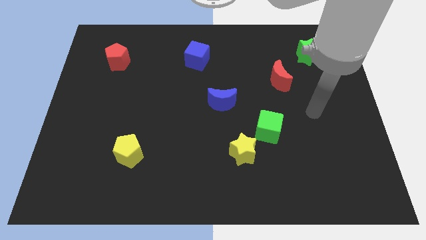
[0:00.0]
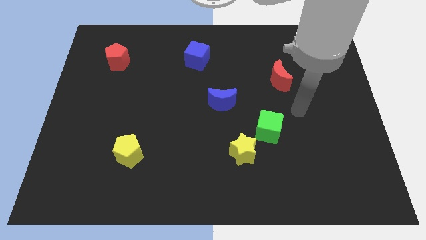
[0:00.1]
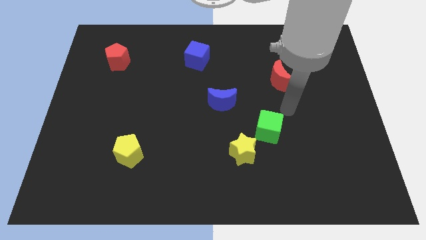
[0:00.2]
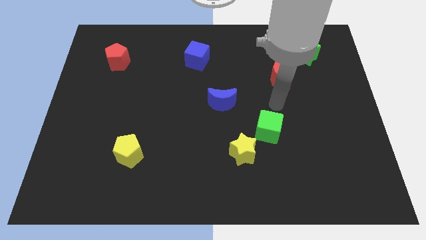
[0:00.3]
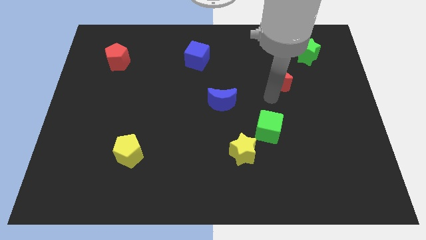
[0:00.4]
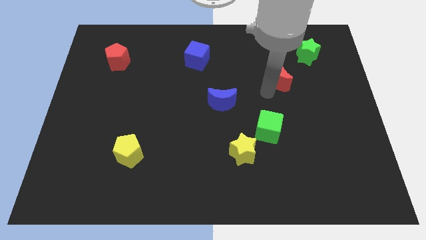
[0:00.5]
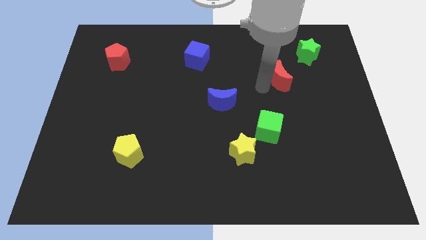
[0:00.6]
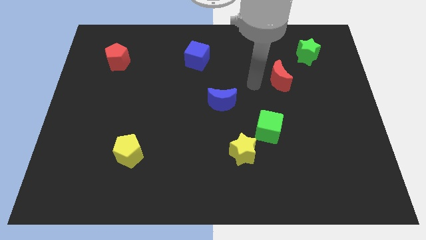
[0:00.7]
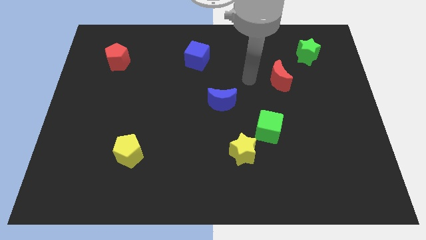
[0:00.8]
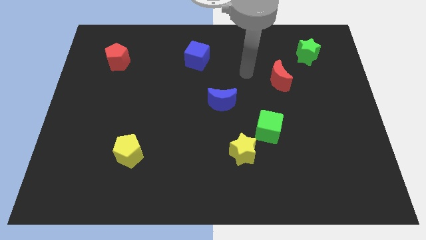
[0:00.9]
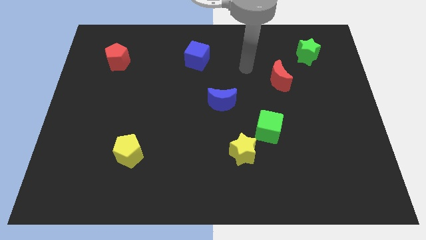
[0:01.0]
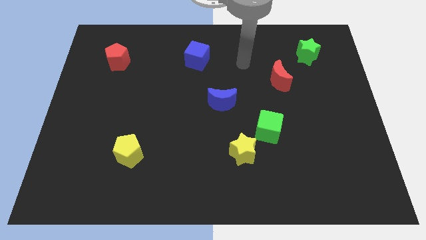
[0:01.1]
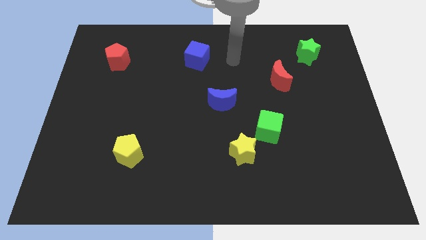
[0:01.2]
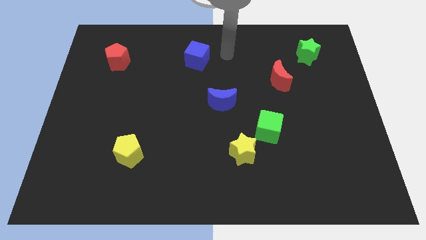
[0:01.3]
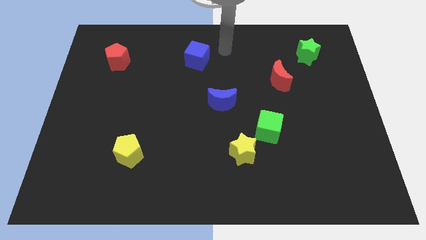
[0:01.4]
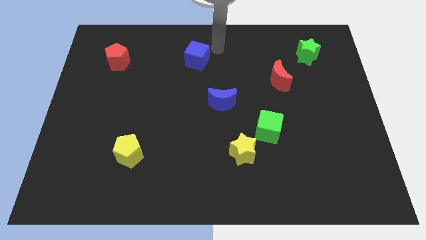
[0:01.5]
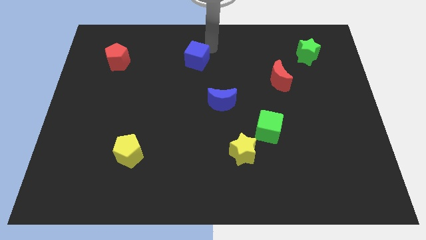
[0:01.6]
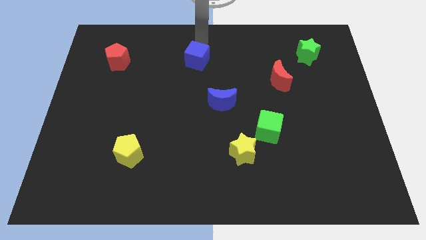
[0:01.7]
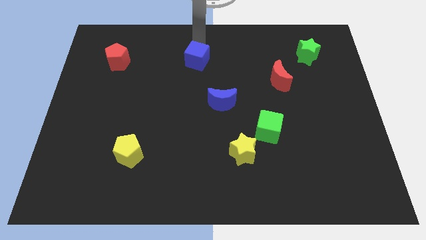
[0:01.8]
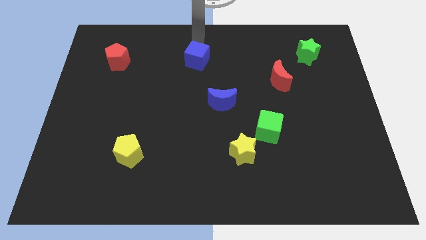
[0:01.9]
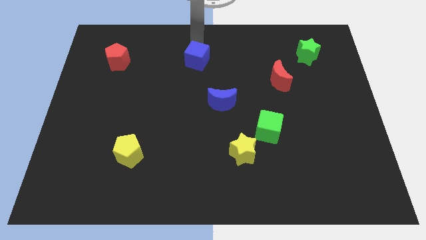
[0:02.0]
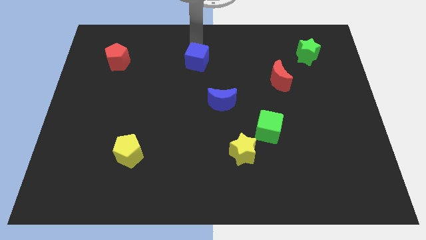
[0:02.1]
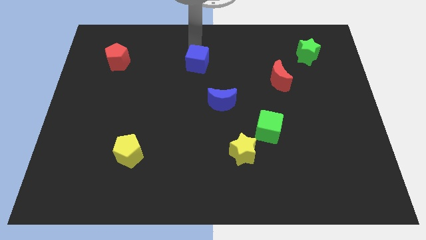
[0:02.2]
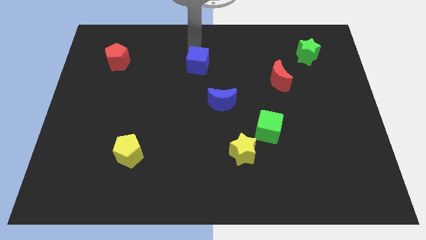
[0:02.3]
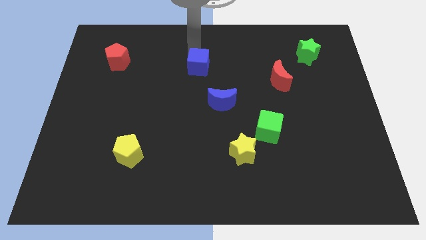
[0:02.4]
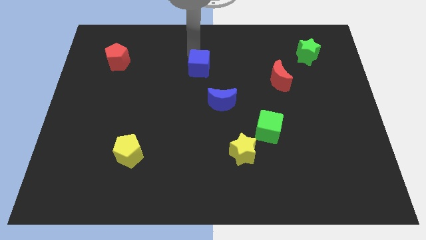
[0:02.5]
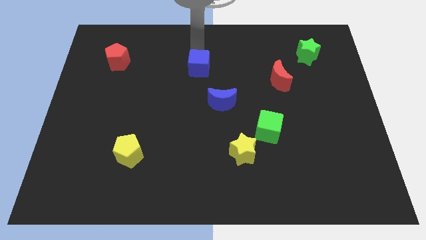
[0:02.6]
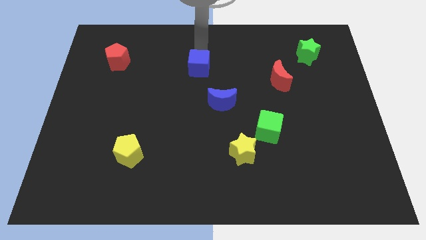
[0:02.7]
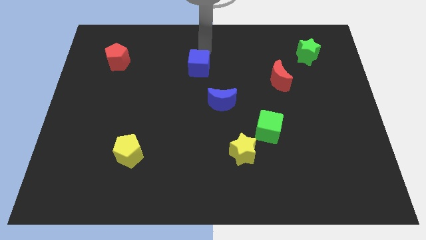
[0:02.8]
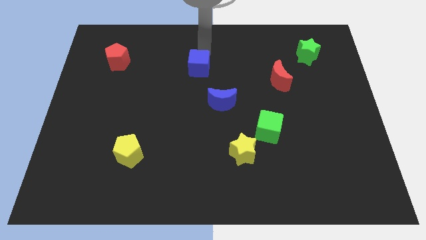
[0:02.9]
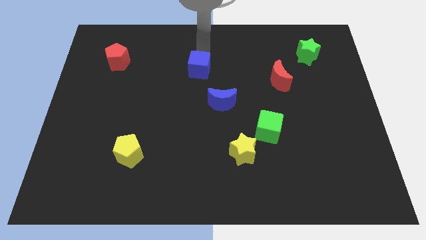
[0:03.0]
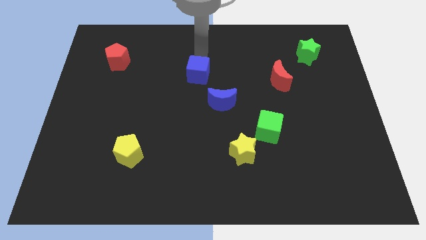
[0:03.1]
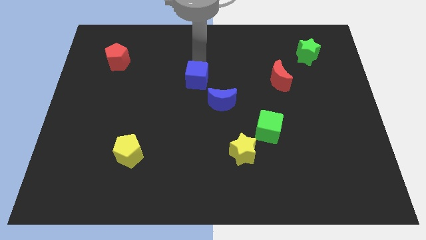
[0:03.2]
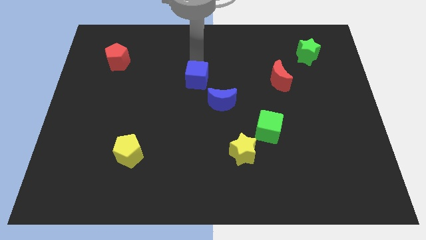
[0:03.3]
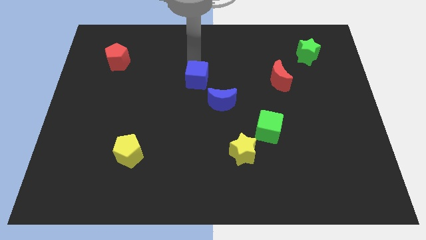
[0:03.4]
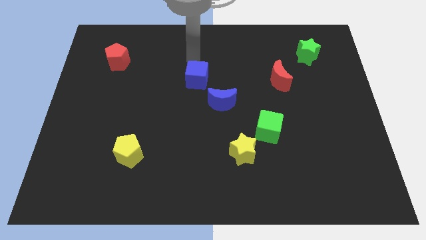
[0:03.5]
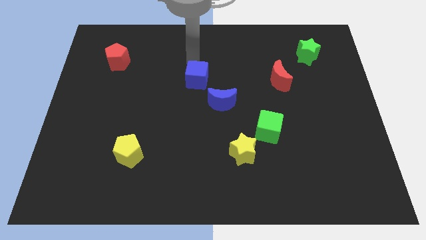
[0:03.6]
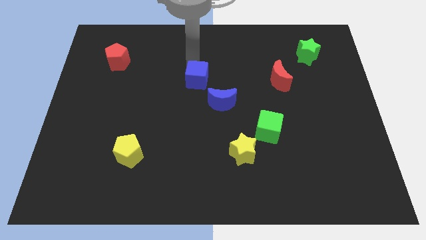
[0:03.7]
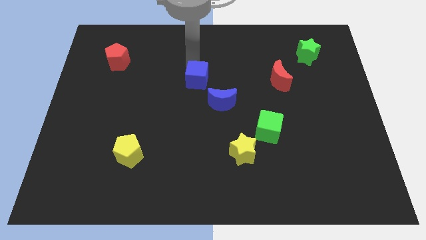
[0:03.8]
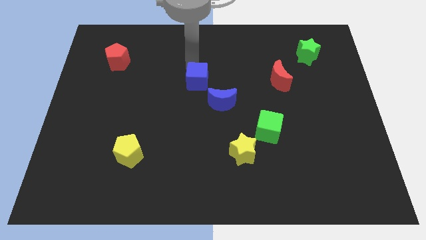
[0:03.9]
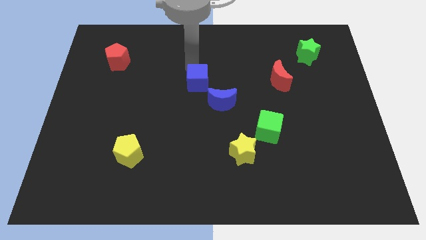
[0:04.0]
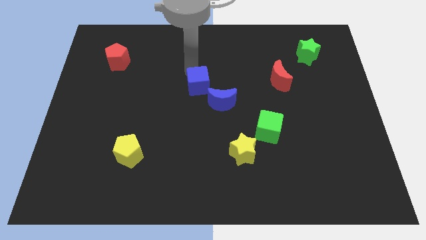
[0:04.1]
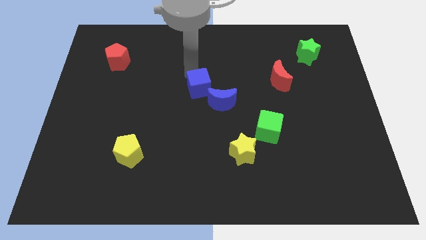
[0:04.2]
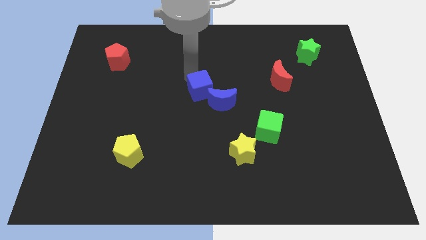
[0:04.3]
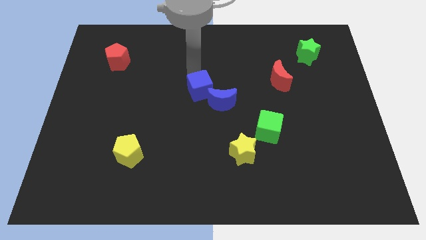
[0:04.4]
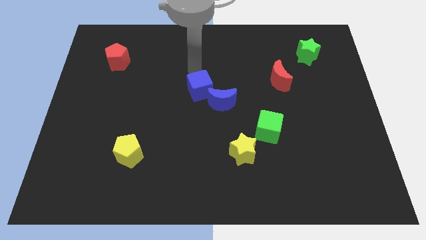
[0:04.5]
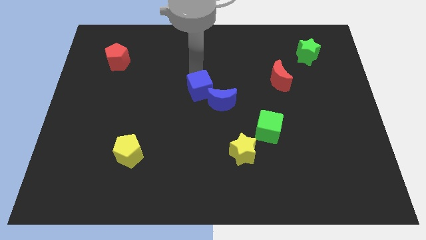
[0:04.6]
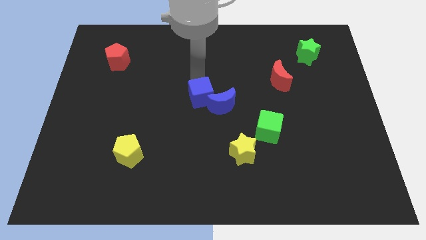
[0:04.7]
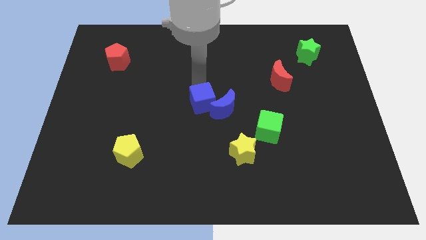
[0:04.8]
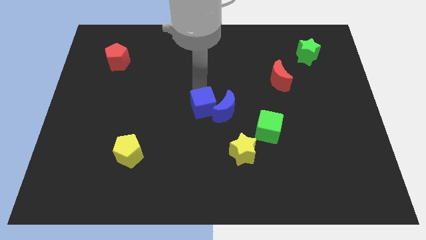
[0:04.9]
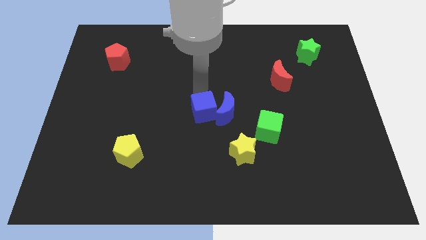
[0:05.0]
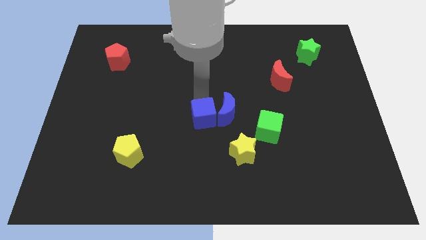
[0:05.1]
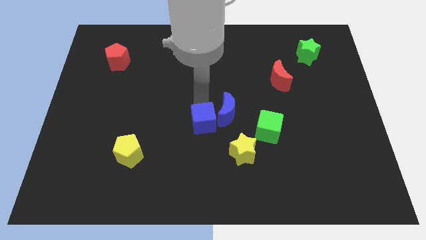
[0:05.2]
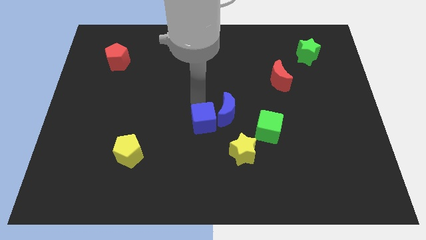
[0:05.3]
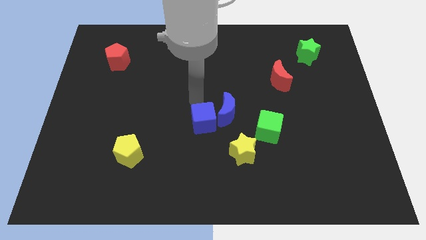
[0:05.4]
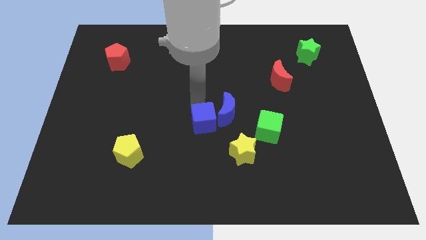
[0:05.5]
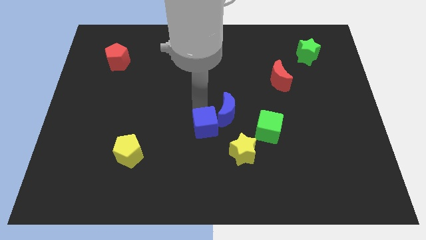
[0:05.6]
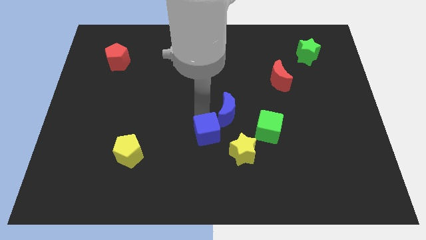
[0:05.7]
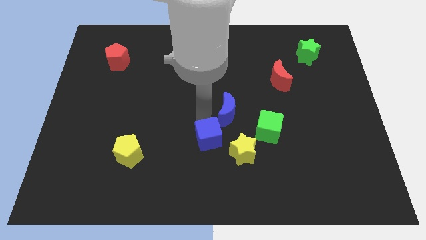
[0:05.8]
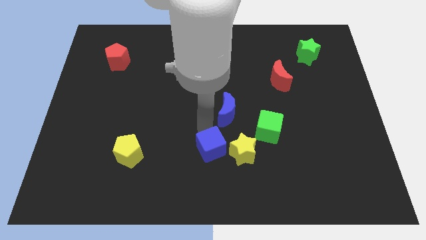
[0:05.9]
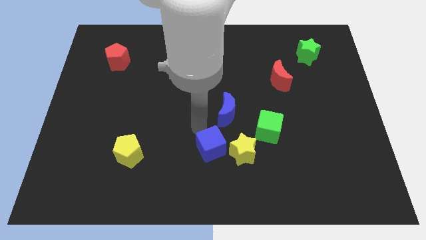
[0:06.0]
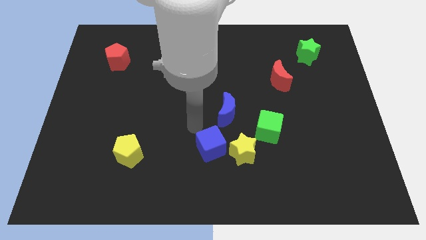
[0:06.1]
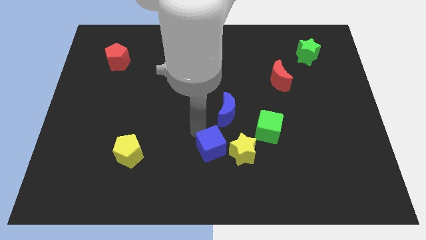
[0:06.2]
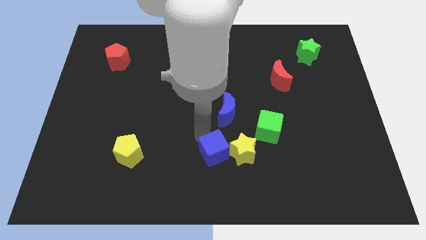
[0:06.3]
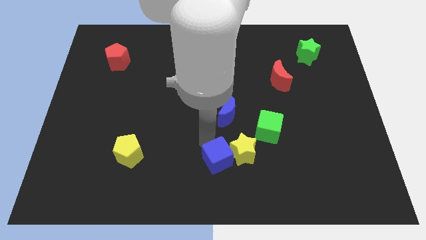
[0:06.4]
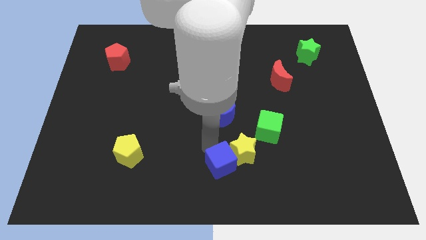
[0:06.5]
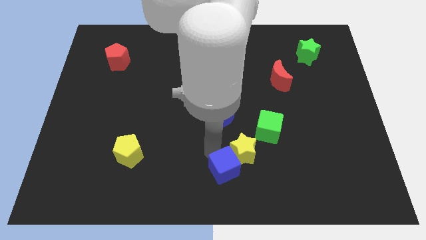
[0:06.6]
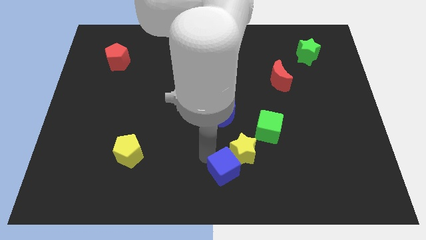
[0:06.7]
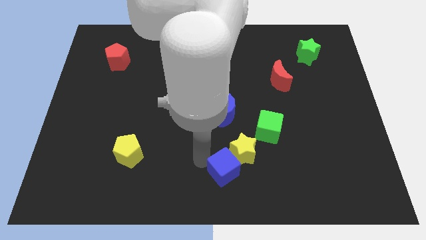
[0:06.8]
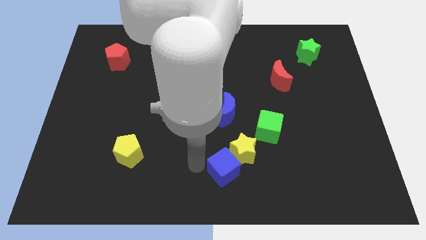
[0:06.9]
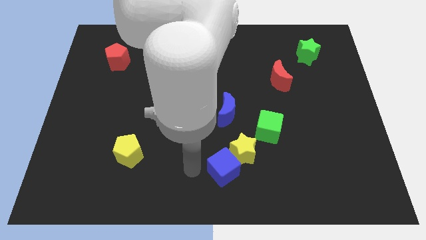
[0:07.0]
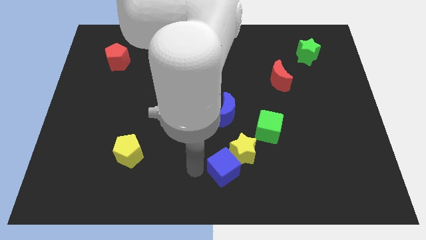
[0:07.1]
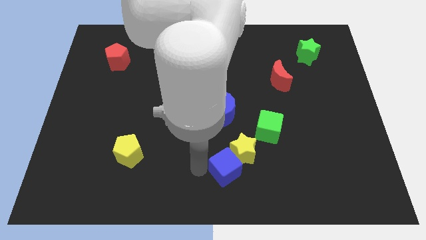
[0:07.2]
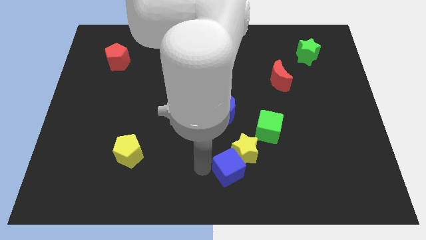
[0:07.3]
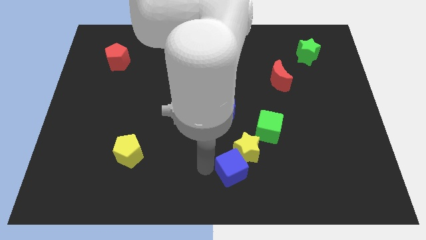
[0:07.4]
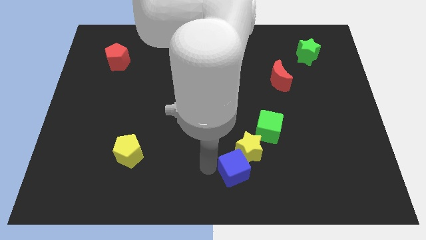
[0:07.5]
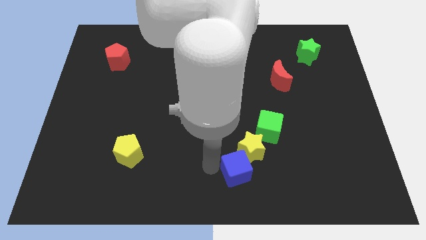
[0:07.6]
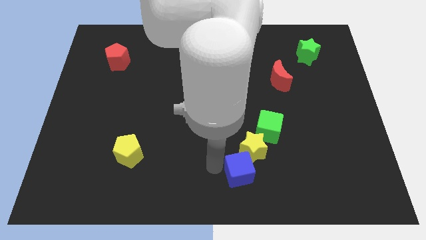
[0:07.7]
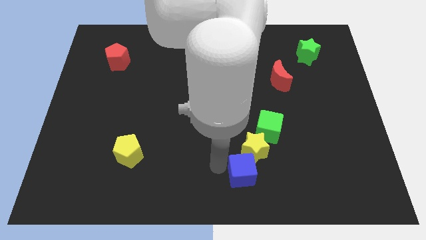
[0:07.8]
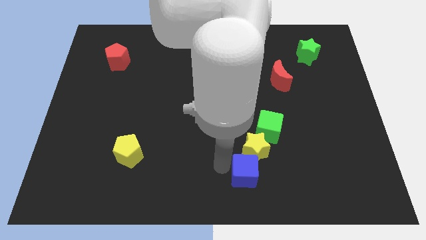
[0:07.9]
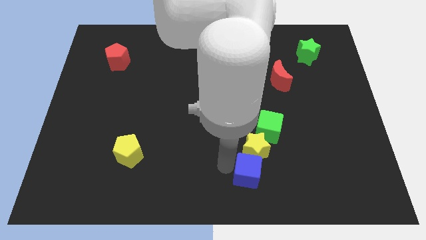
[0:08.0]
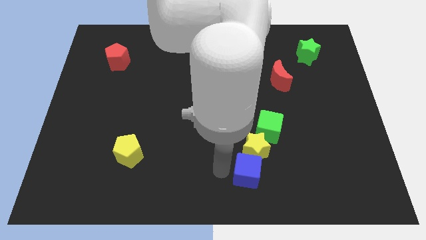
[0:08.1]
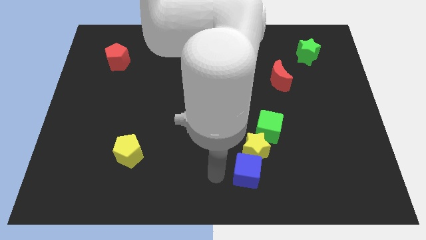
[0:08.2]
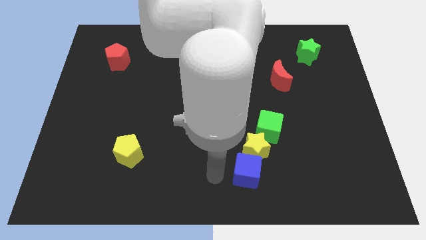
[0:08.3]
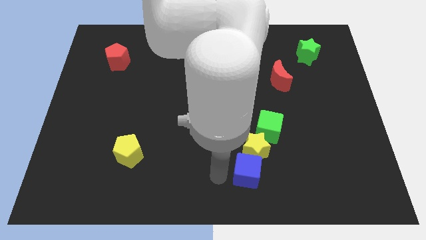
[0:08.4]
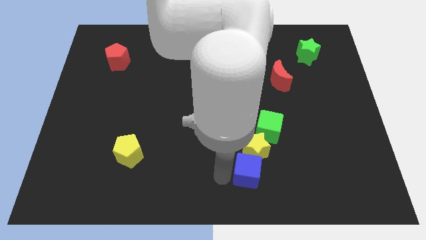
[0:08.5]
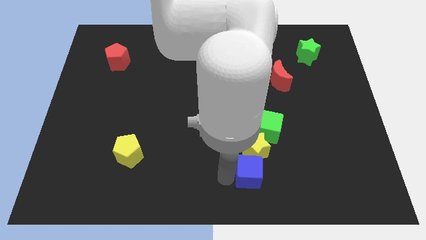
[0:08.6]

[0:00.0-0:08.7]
move the blue cube to the bottom of the green cube
